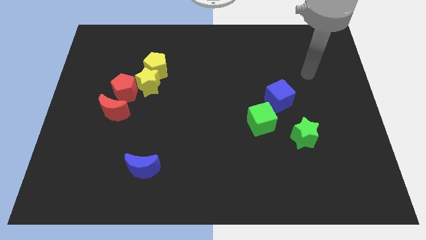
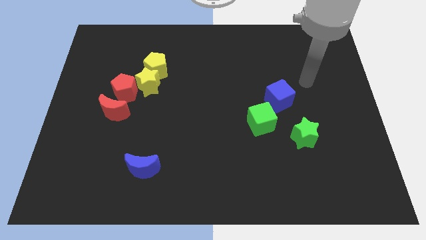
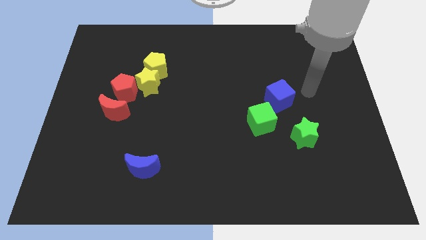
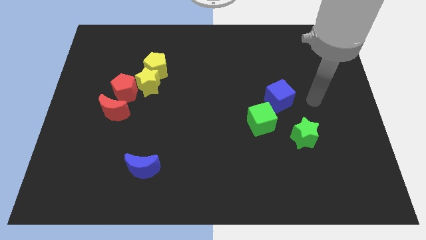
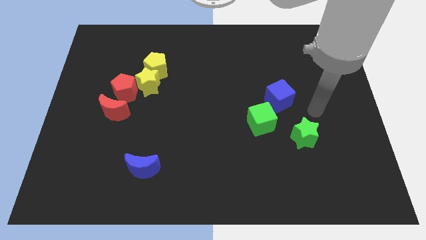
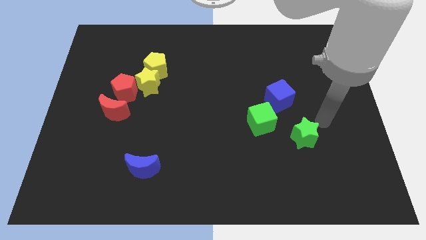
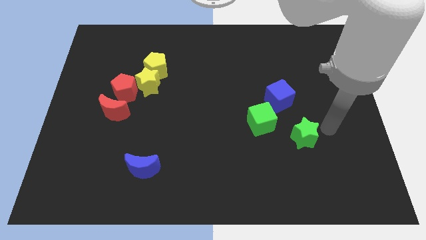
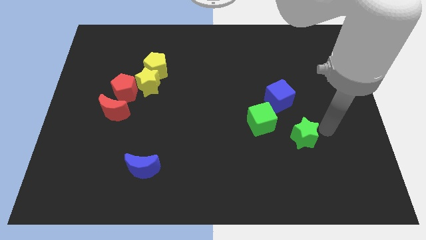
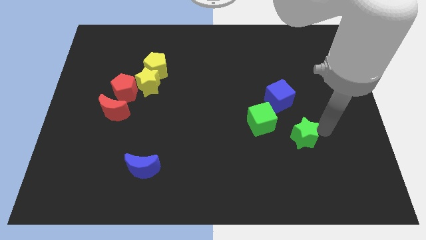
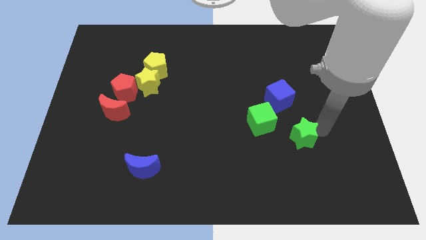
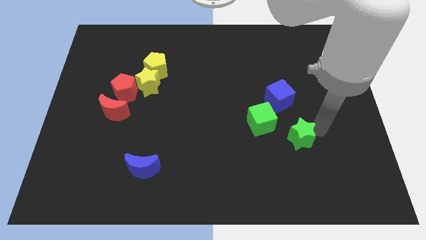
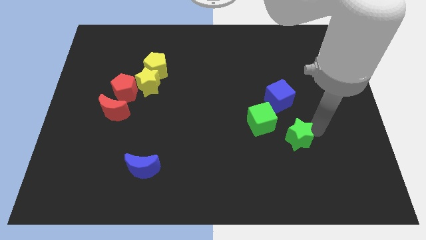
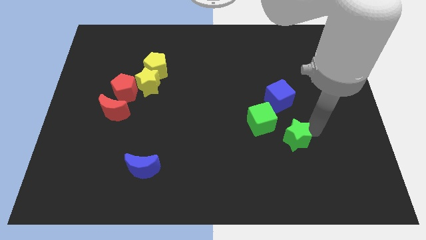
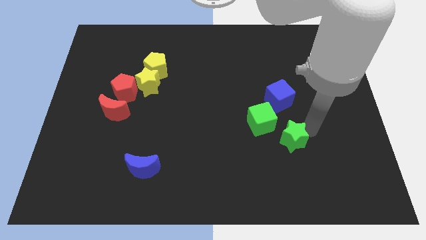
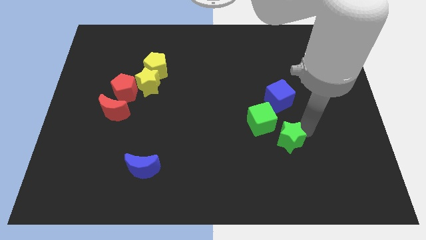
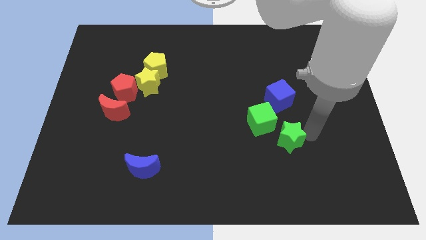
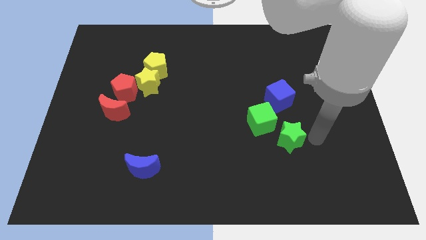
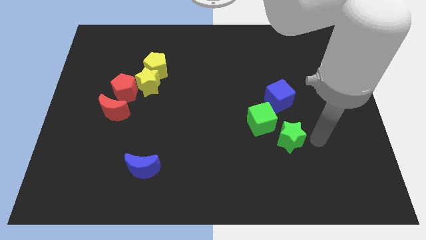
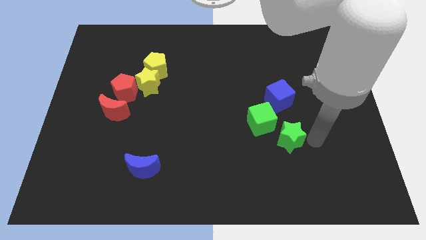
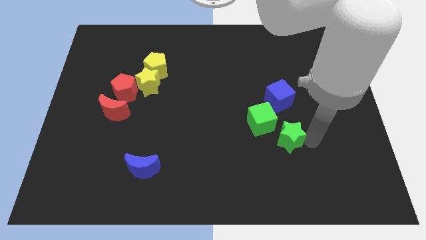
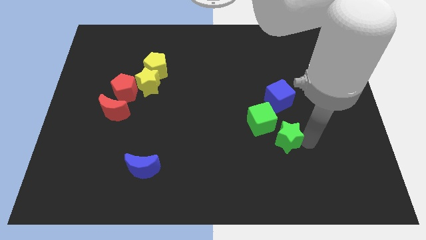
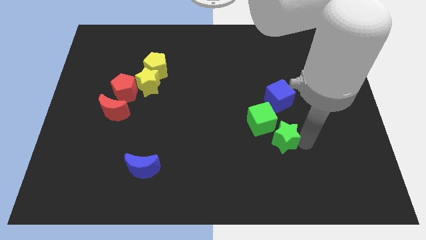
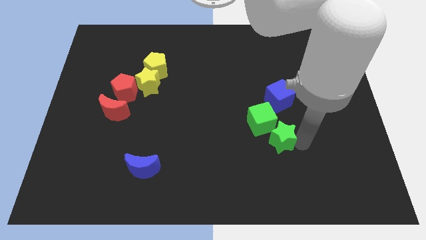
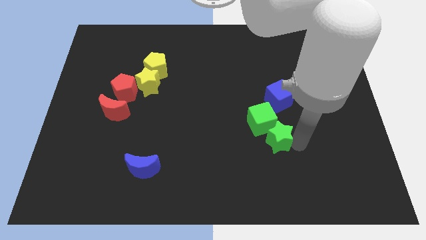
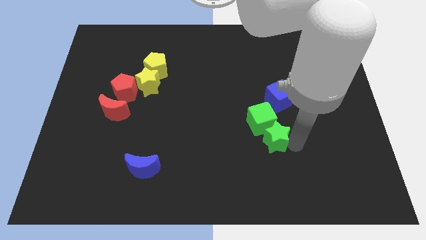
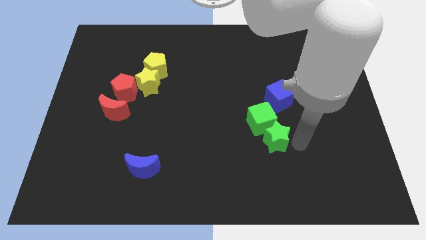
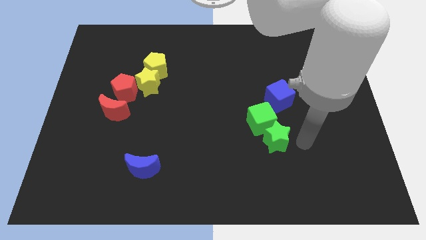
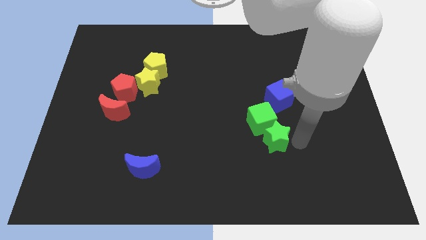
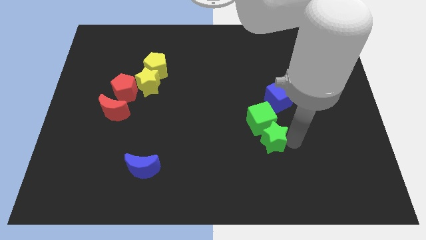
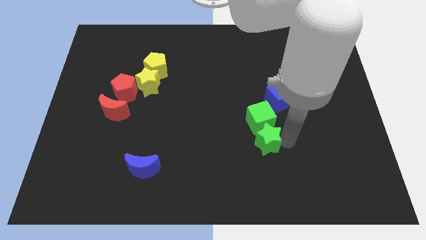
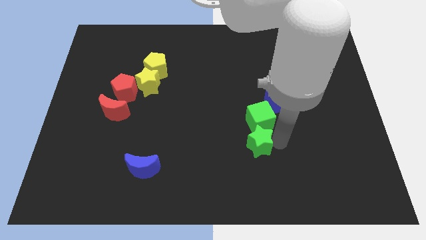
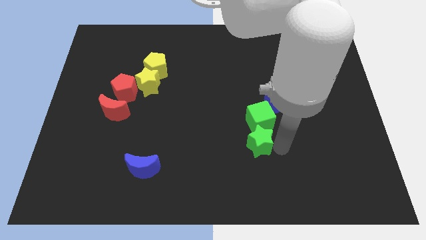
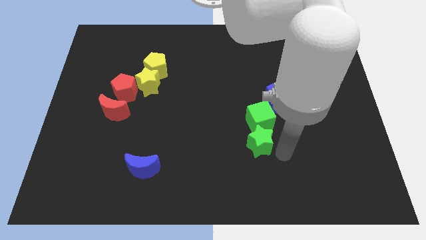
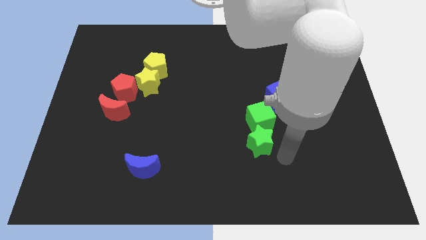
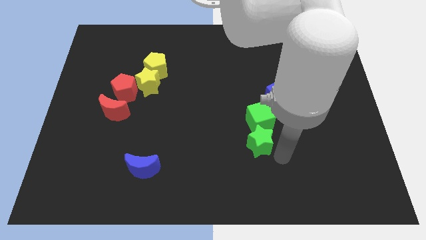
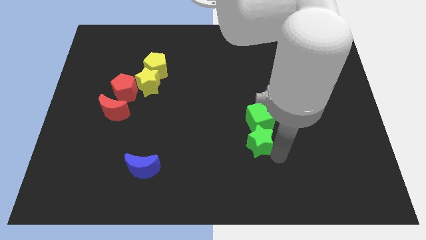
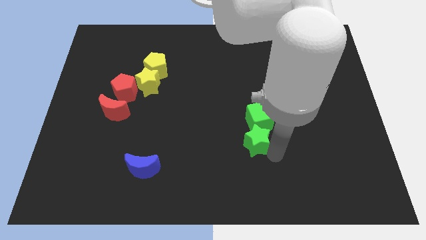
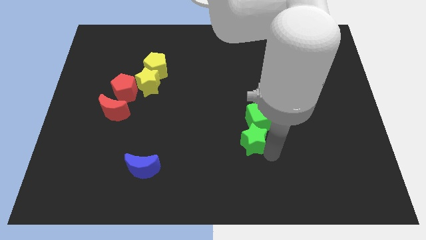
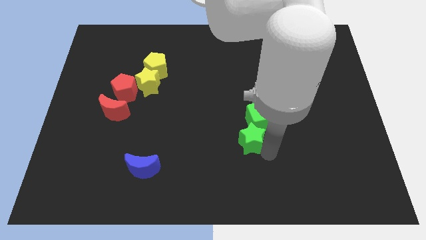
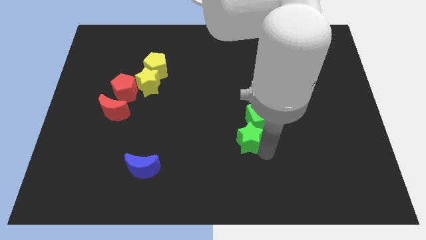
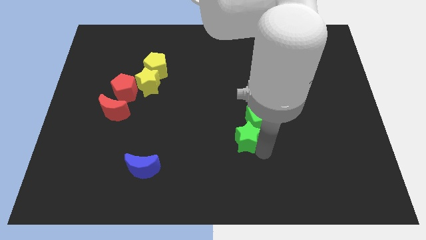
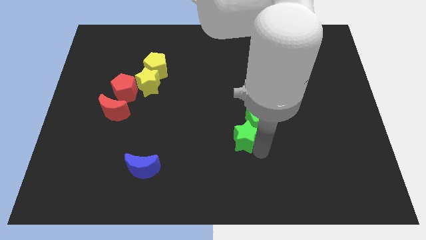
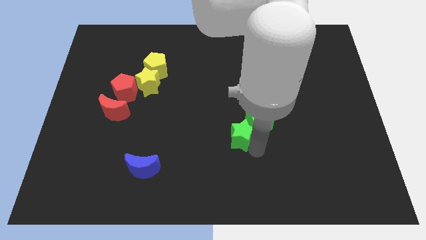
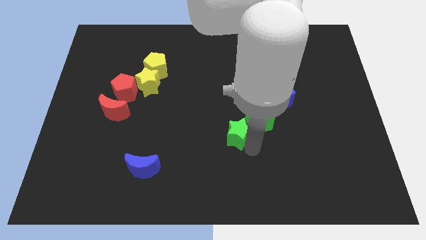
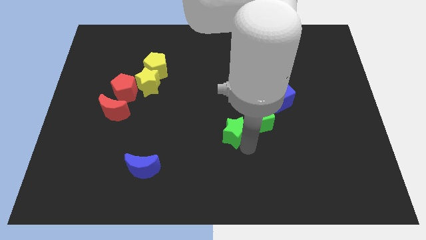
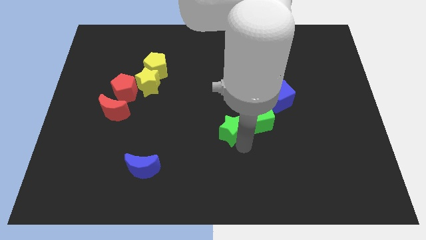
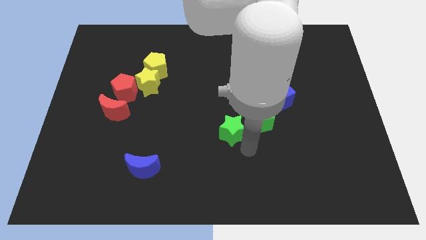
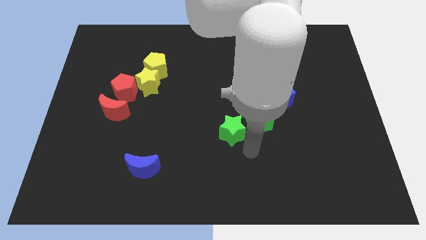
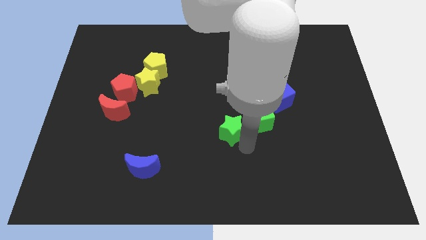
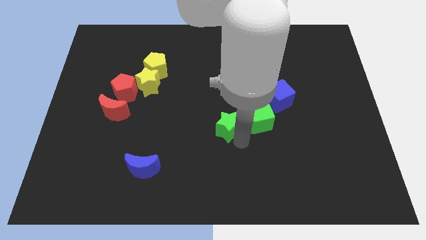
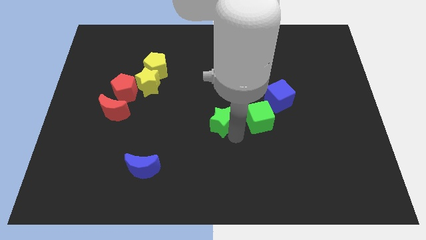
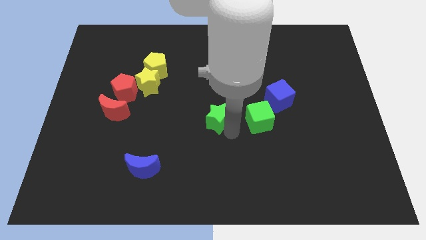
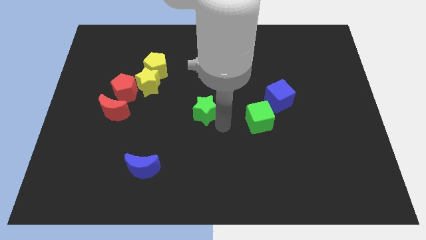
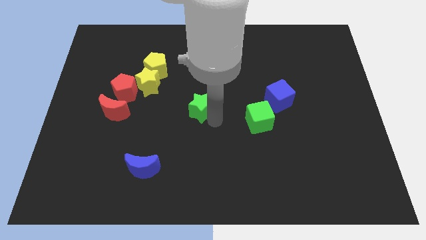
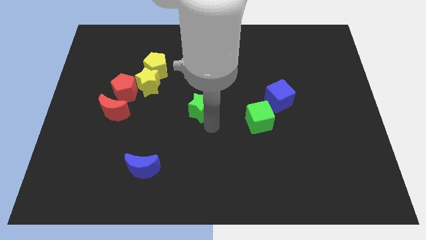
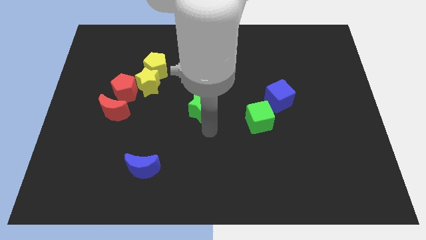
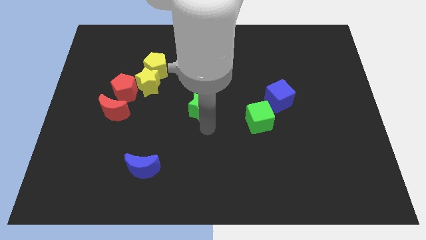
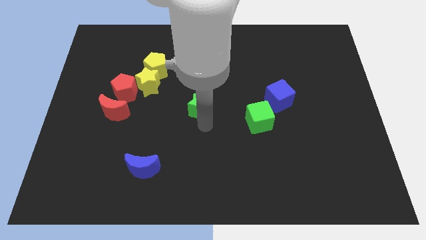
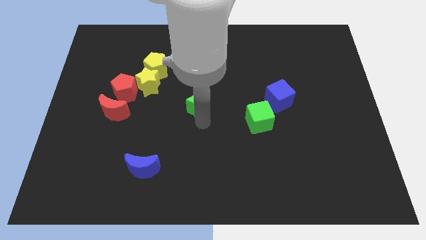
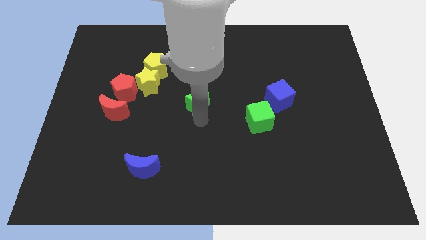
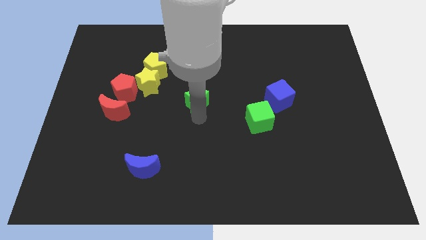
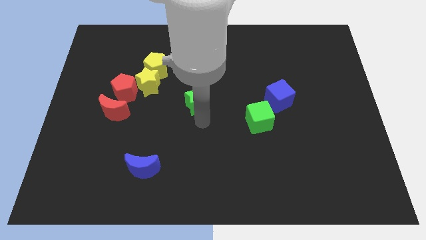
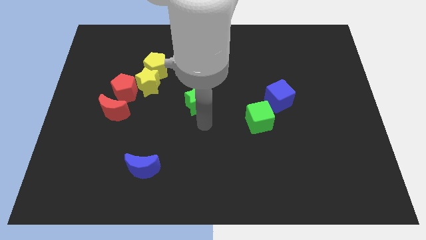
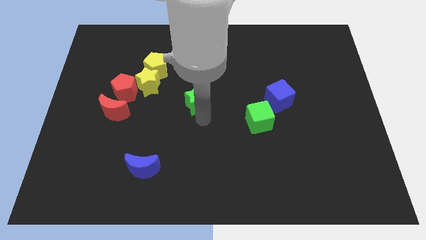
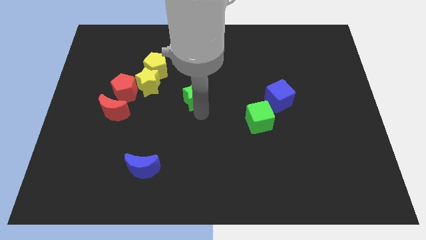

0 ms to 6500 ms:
put the green star just right of the yellow star

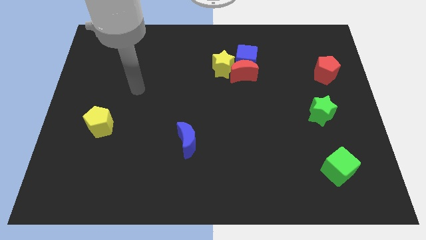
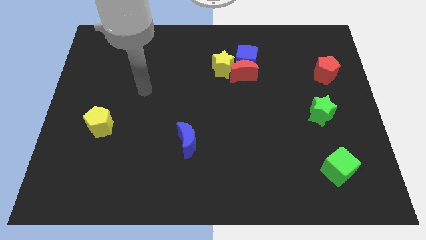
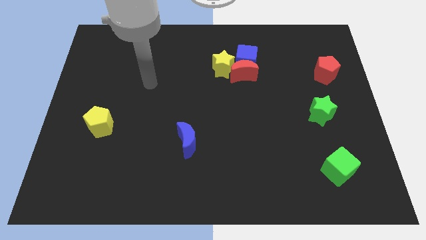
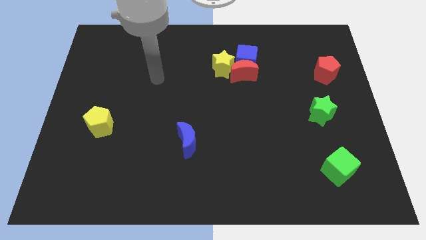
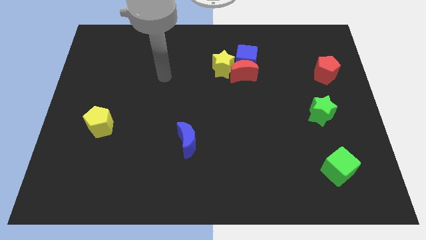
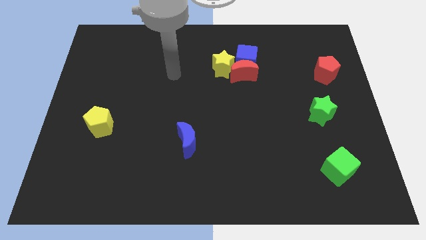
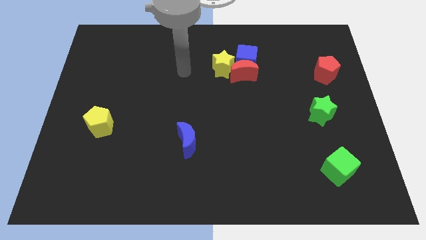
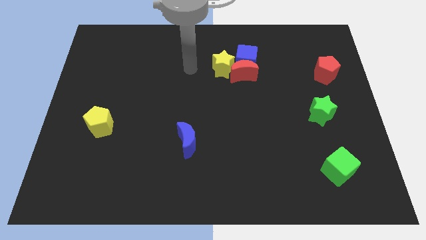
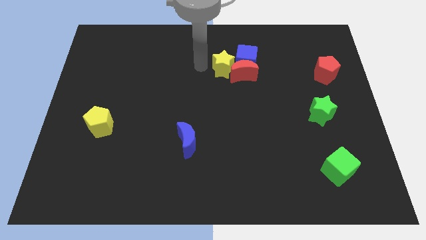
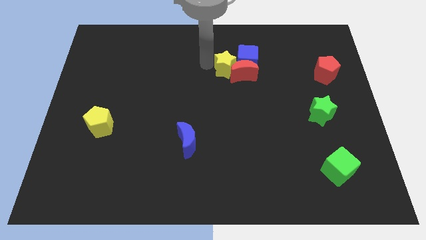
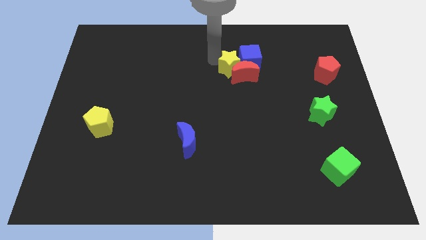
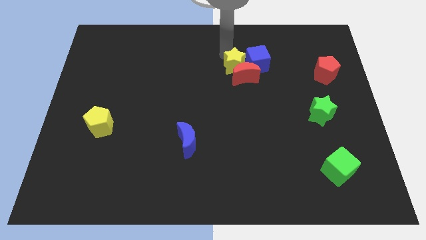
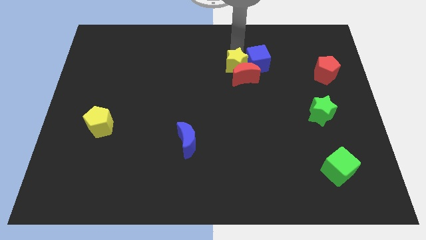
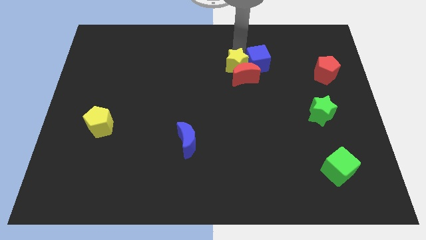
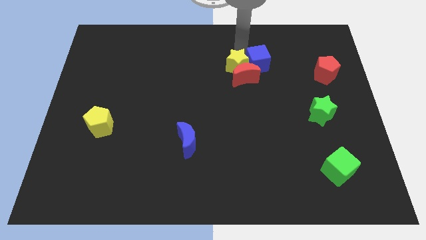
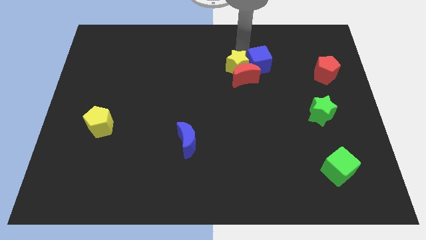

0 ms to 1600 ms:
put the blue cube right of the red moon
